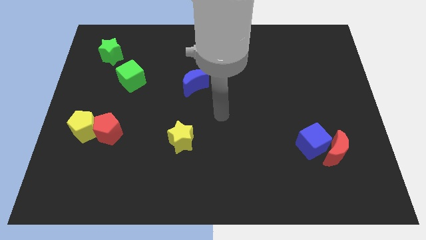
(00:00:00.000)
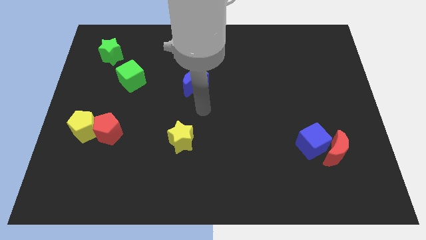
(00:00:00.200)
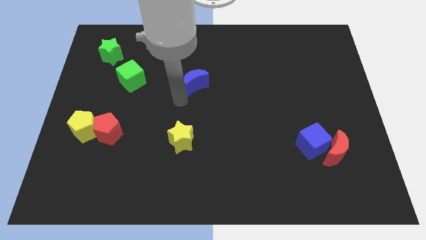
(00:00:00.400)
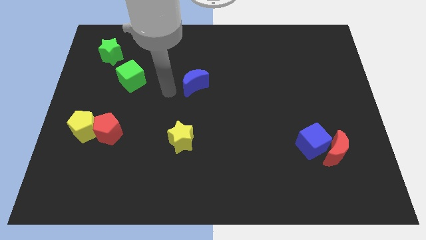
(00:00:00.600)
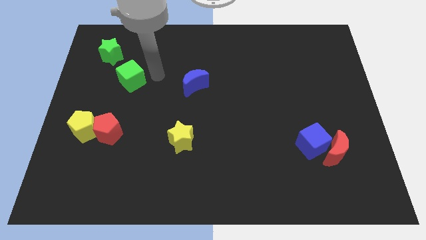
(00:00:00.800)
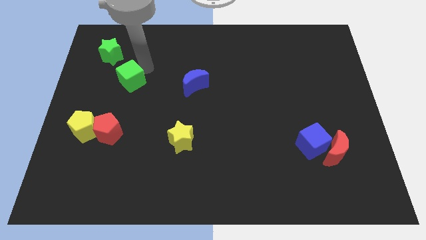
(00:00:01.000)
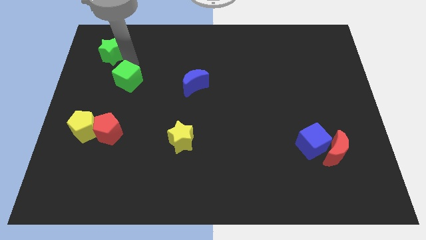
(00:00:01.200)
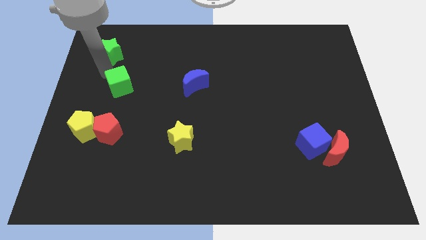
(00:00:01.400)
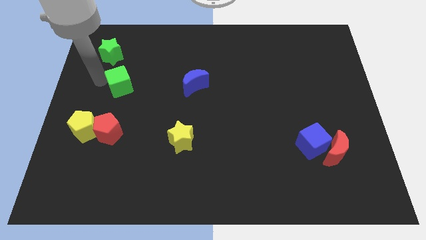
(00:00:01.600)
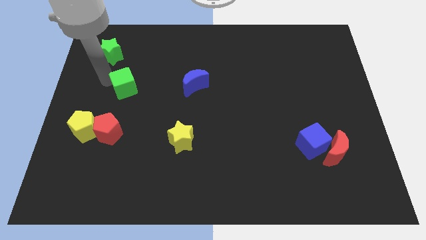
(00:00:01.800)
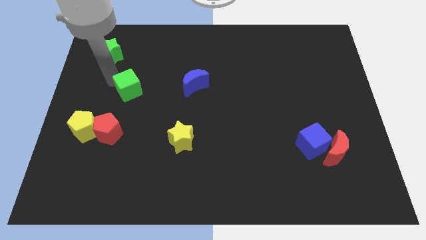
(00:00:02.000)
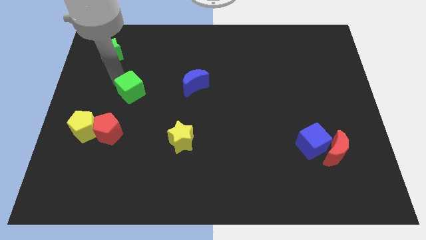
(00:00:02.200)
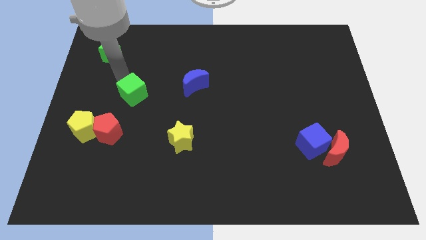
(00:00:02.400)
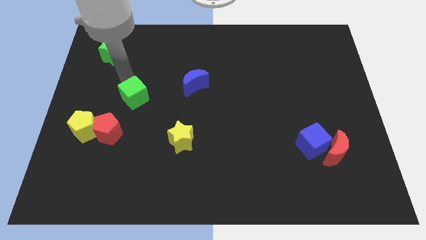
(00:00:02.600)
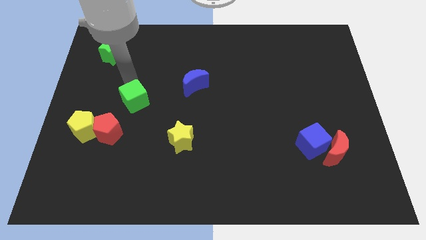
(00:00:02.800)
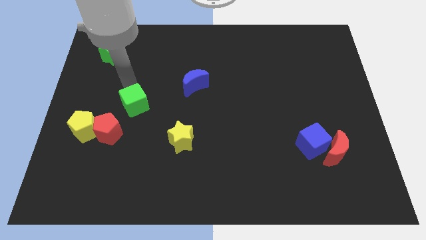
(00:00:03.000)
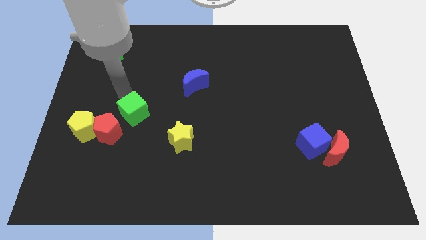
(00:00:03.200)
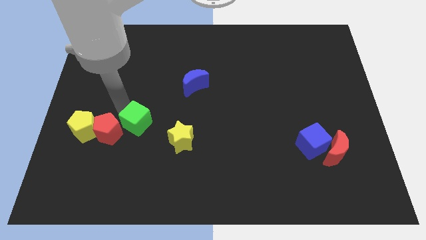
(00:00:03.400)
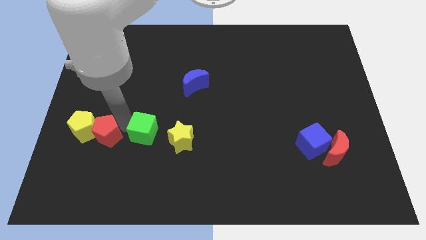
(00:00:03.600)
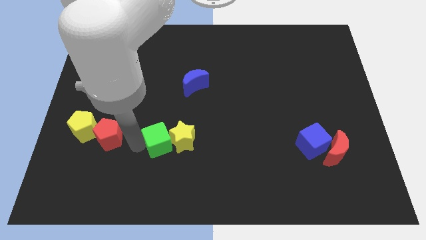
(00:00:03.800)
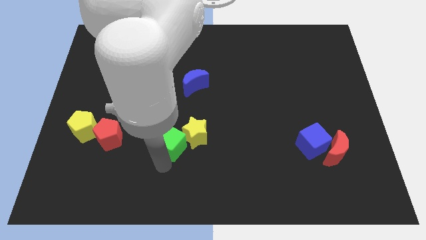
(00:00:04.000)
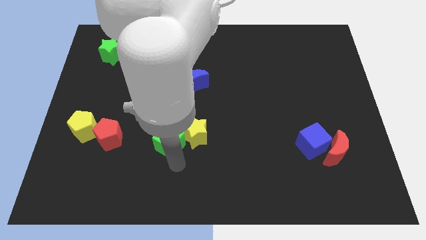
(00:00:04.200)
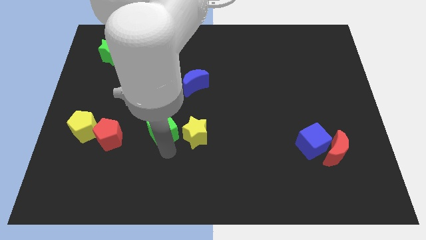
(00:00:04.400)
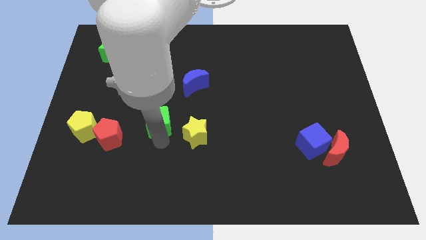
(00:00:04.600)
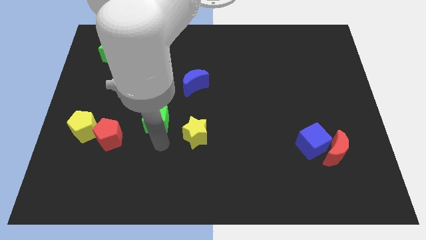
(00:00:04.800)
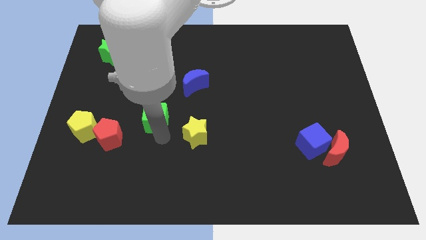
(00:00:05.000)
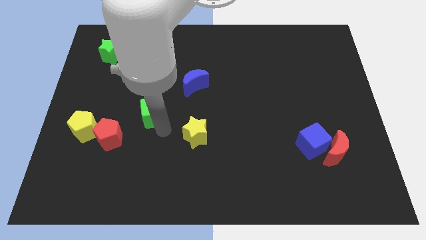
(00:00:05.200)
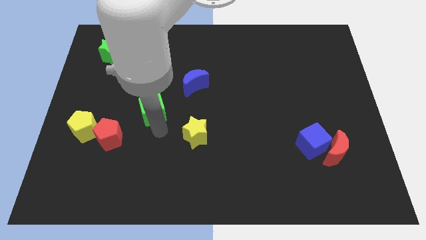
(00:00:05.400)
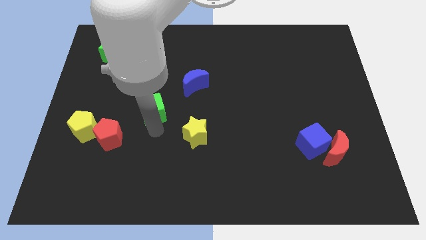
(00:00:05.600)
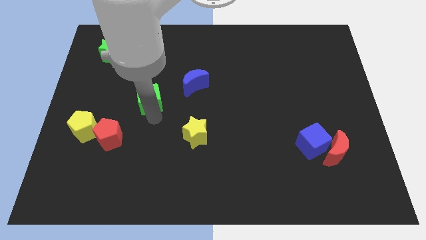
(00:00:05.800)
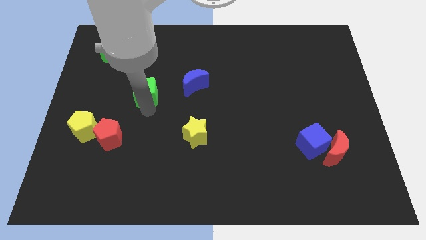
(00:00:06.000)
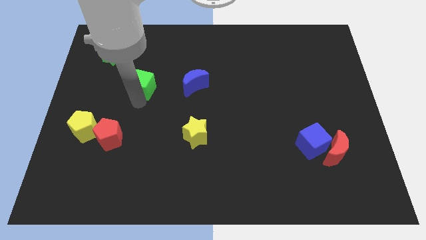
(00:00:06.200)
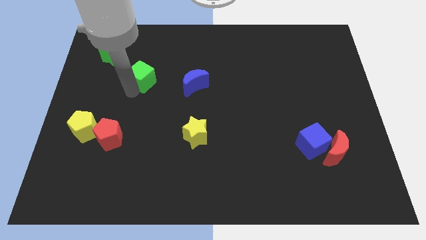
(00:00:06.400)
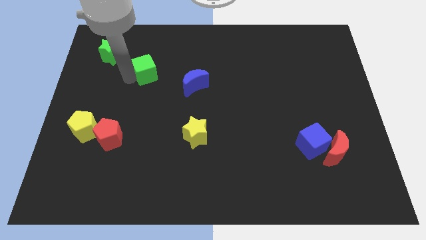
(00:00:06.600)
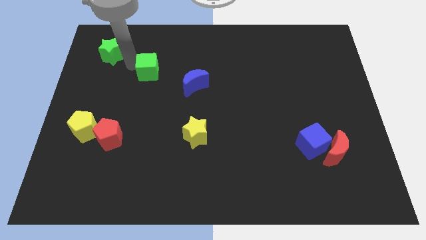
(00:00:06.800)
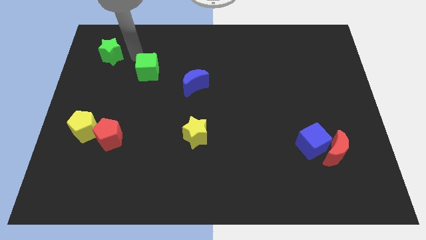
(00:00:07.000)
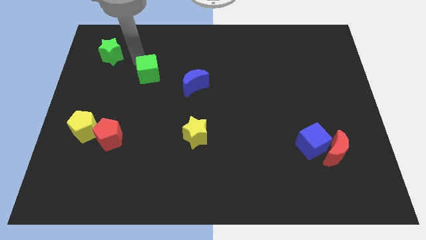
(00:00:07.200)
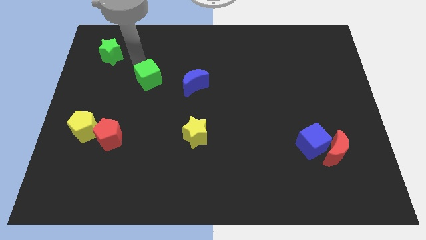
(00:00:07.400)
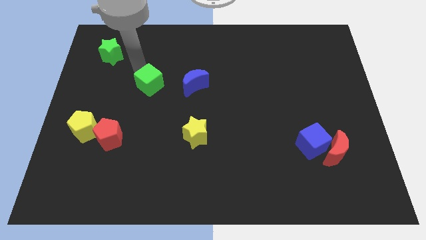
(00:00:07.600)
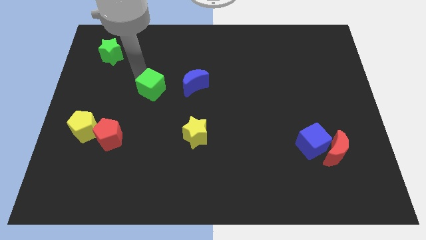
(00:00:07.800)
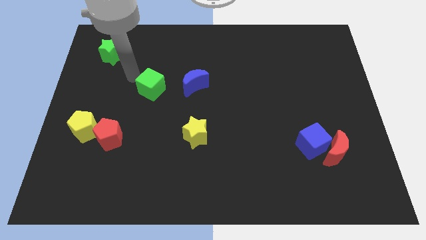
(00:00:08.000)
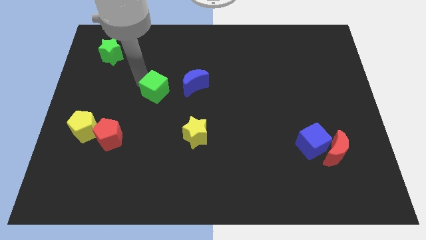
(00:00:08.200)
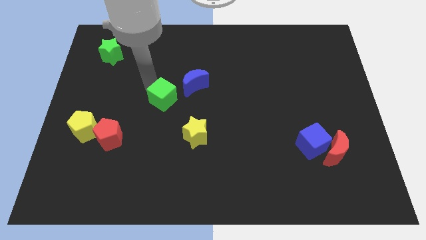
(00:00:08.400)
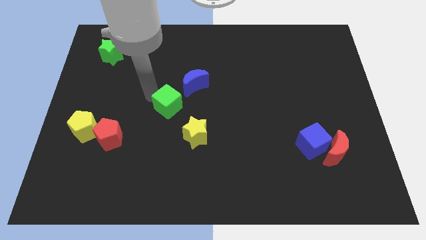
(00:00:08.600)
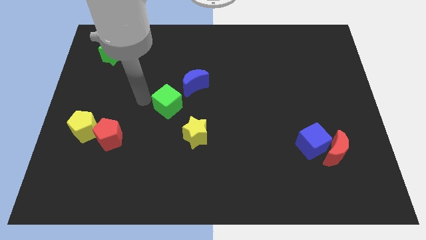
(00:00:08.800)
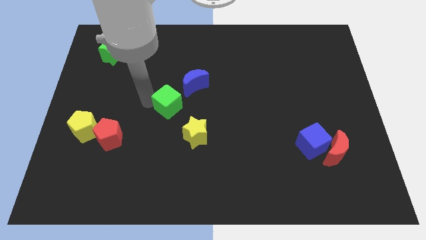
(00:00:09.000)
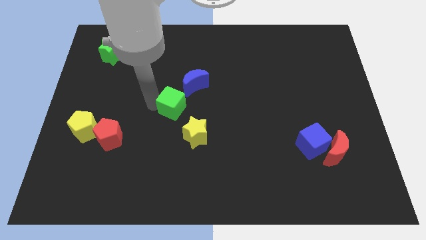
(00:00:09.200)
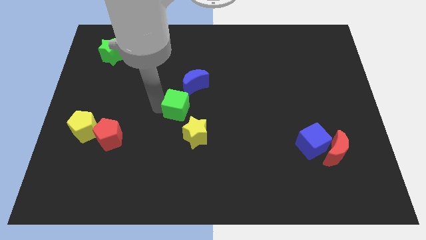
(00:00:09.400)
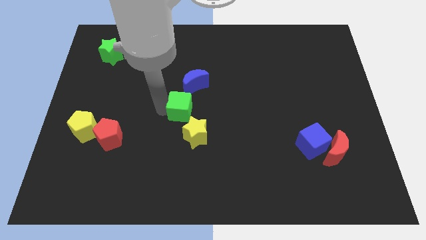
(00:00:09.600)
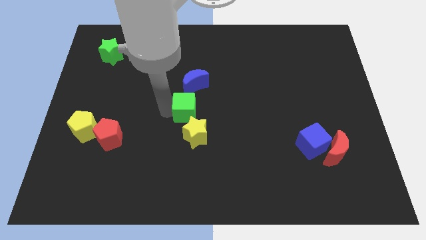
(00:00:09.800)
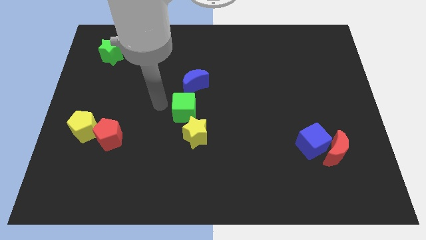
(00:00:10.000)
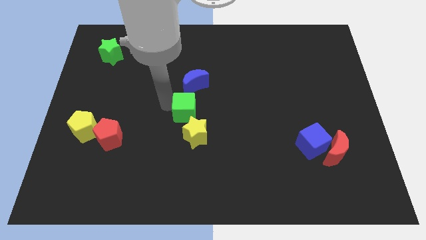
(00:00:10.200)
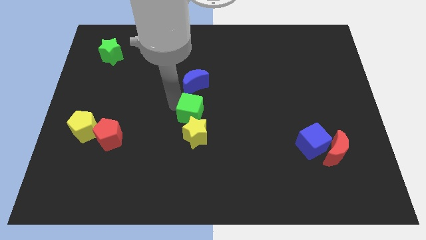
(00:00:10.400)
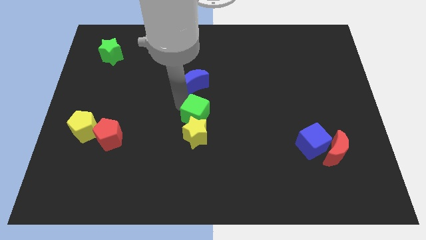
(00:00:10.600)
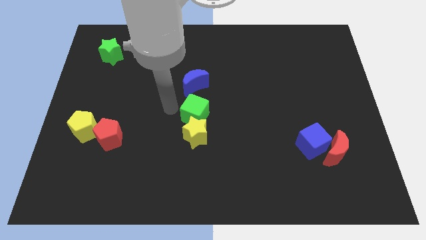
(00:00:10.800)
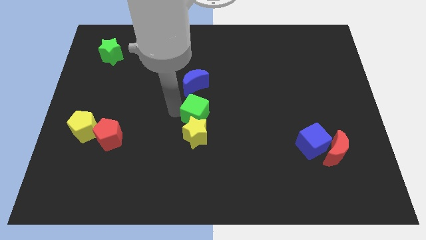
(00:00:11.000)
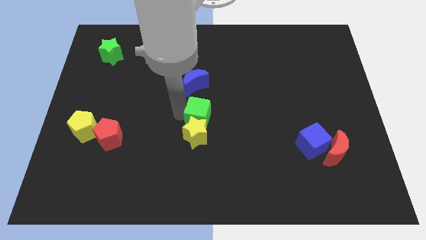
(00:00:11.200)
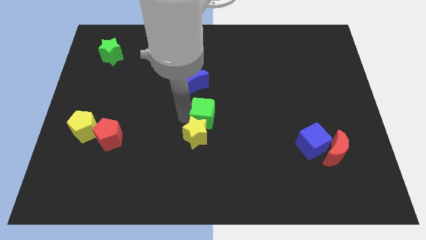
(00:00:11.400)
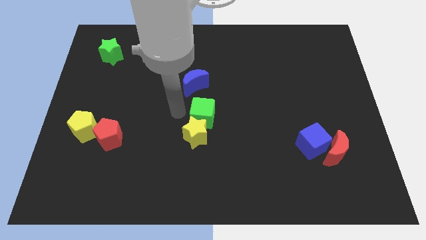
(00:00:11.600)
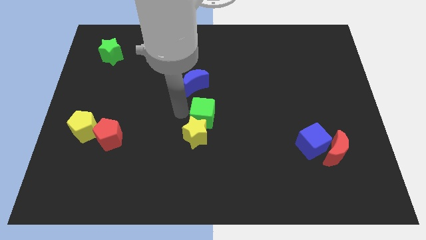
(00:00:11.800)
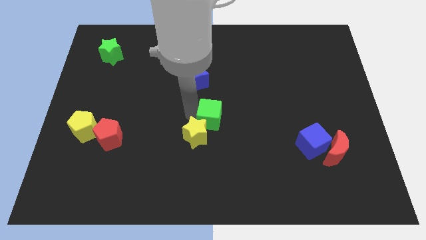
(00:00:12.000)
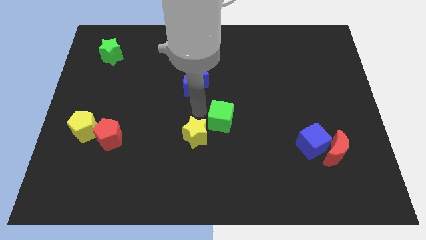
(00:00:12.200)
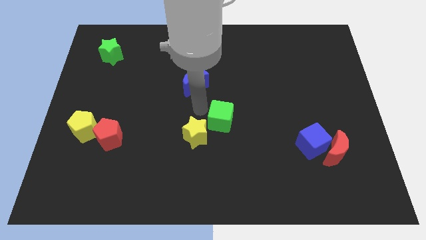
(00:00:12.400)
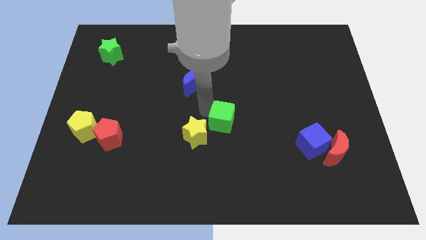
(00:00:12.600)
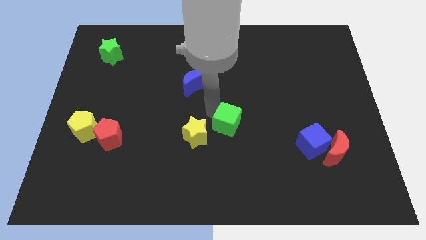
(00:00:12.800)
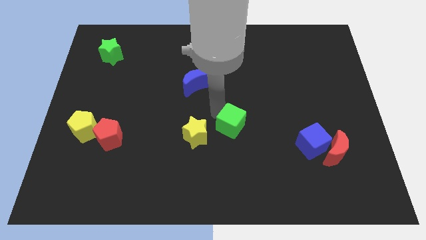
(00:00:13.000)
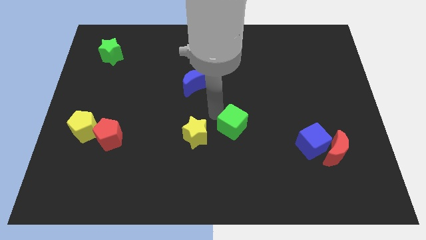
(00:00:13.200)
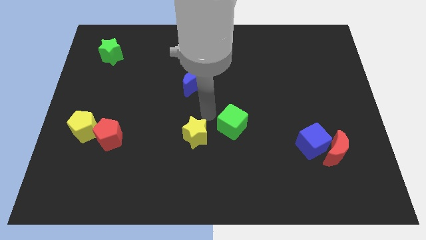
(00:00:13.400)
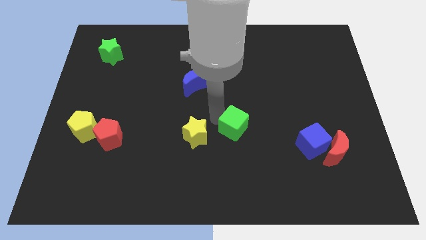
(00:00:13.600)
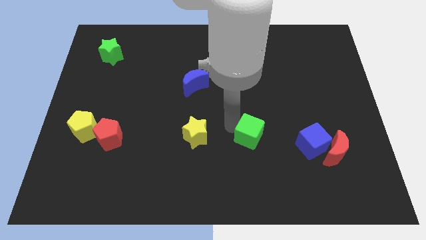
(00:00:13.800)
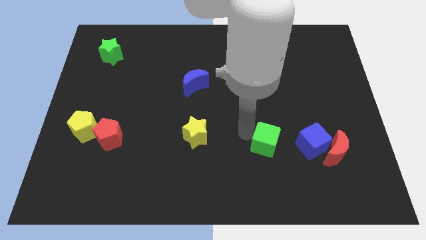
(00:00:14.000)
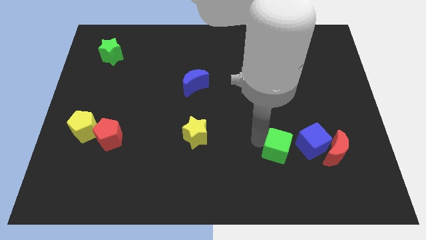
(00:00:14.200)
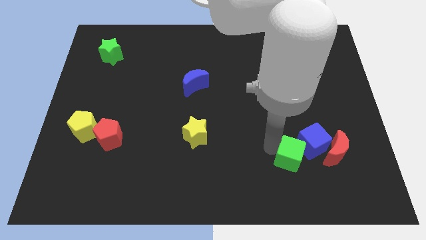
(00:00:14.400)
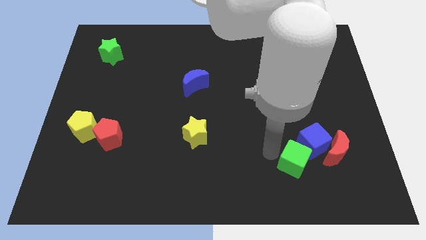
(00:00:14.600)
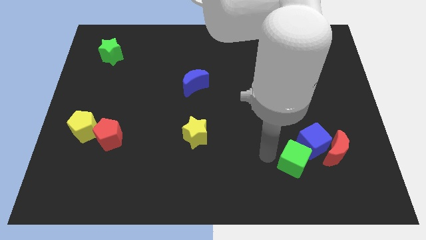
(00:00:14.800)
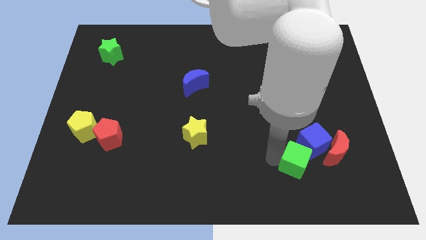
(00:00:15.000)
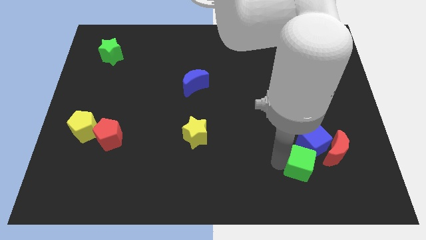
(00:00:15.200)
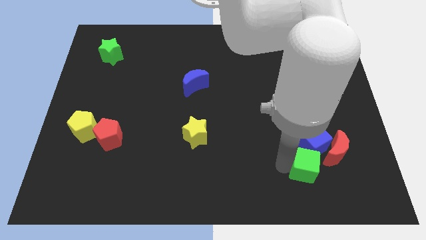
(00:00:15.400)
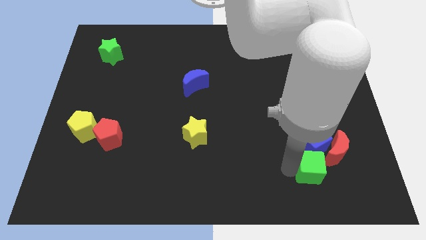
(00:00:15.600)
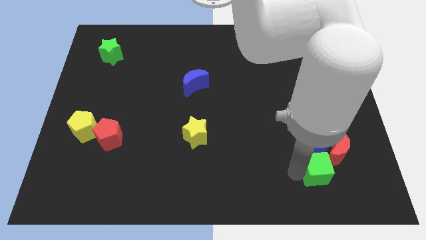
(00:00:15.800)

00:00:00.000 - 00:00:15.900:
slide the green cube diagonally down and to the right of the blue cube
